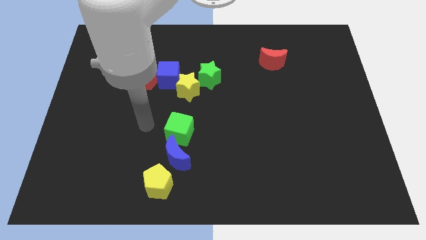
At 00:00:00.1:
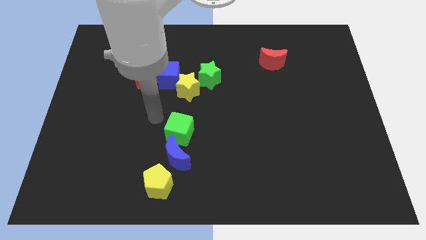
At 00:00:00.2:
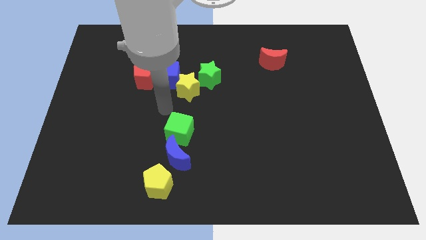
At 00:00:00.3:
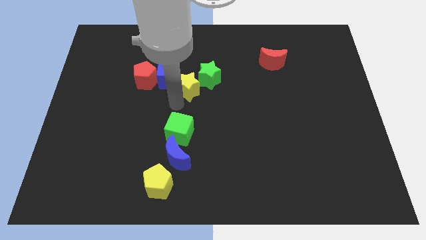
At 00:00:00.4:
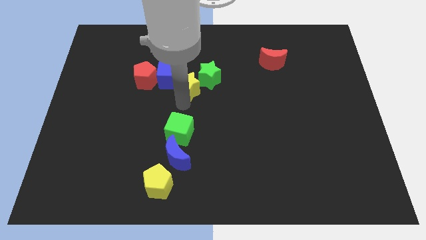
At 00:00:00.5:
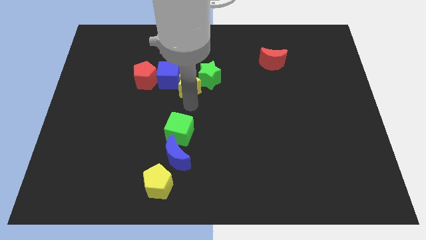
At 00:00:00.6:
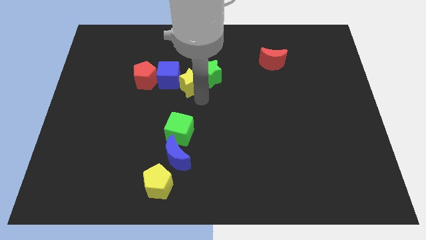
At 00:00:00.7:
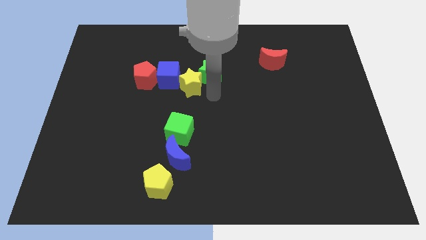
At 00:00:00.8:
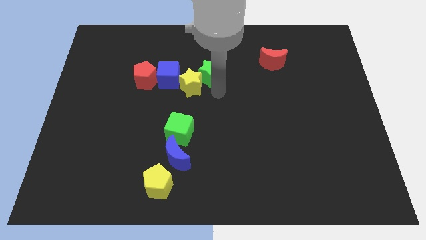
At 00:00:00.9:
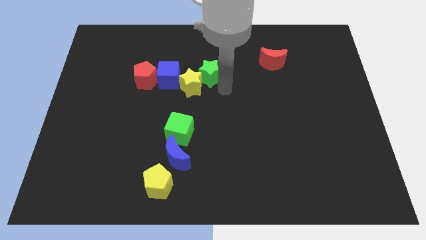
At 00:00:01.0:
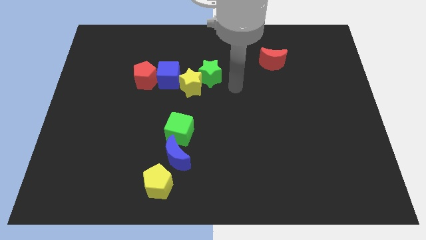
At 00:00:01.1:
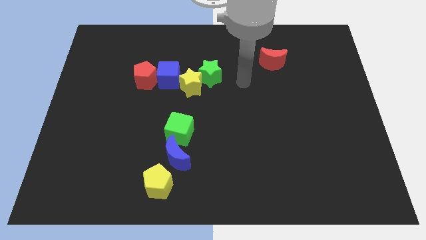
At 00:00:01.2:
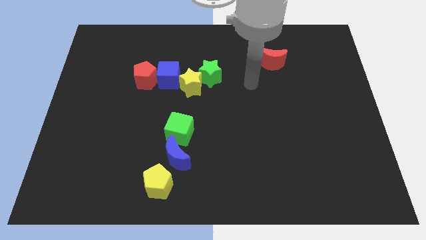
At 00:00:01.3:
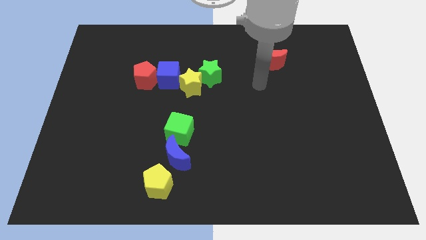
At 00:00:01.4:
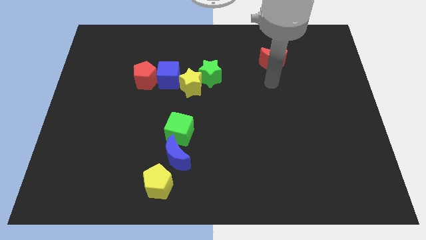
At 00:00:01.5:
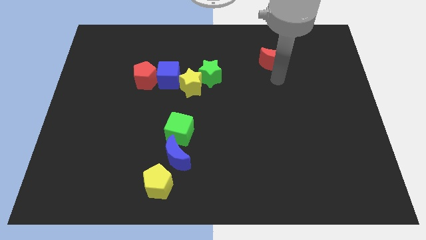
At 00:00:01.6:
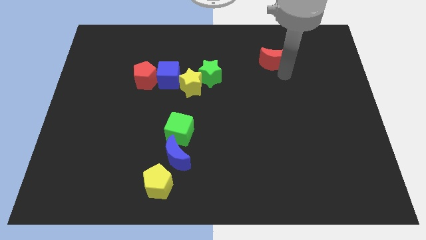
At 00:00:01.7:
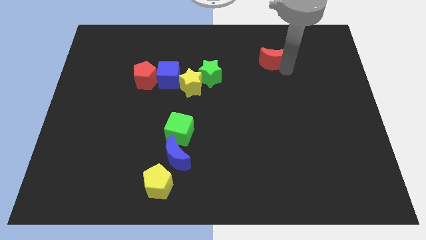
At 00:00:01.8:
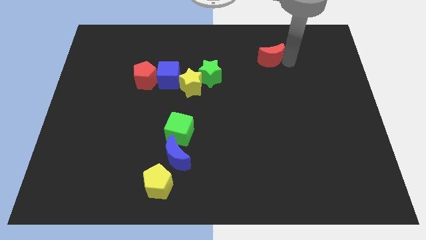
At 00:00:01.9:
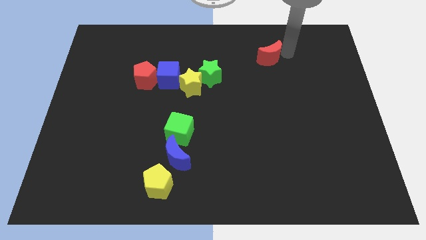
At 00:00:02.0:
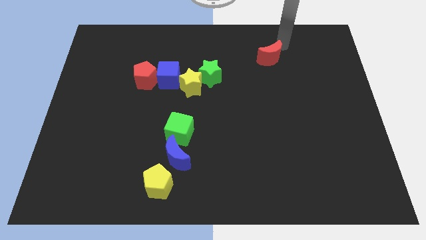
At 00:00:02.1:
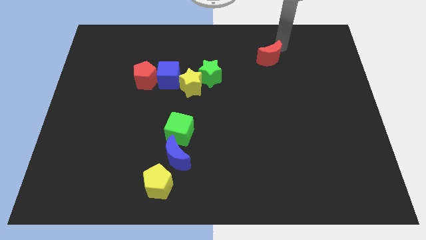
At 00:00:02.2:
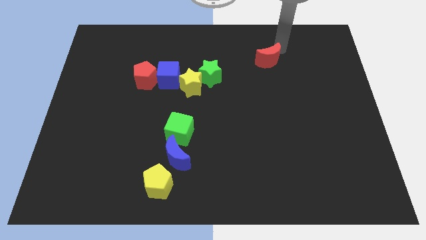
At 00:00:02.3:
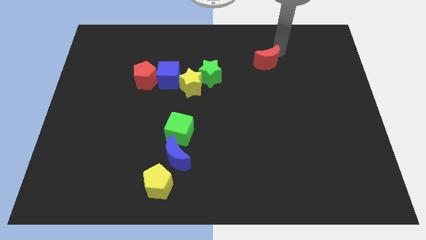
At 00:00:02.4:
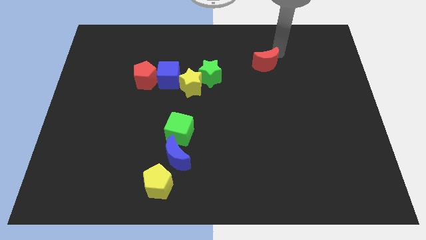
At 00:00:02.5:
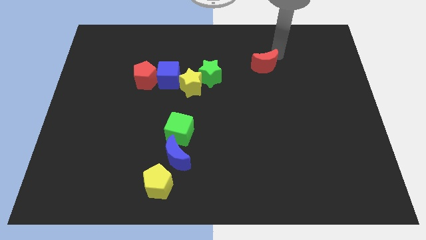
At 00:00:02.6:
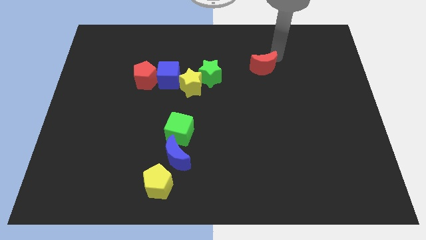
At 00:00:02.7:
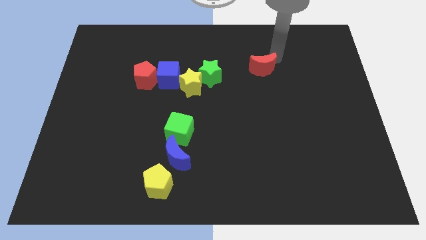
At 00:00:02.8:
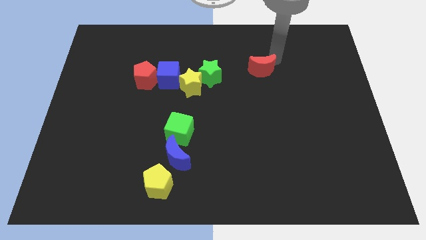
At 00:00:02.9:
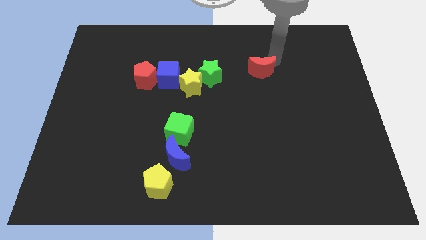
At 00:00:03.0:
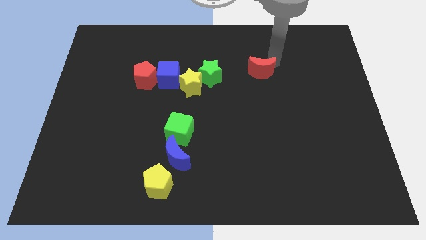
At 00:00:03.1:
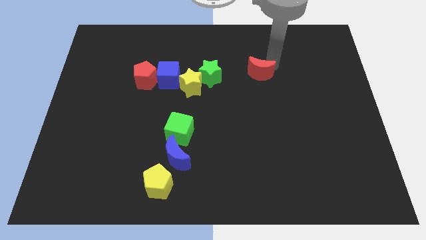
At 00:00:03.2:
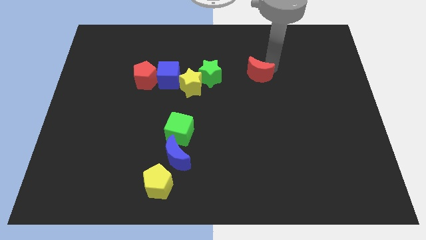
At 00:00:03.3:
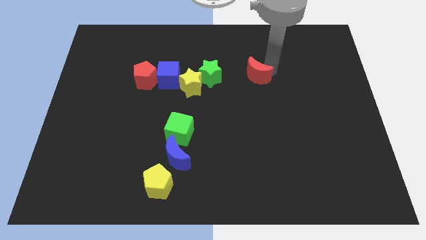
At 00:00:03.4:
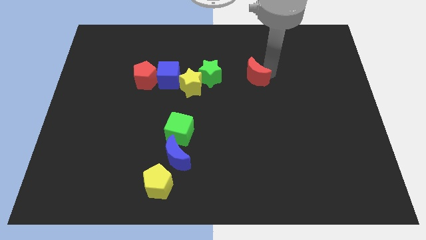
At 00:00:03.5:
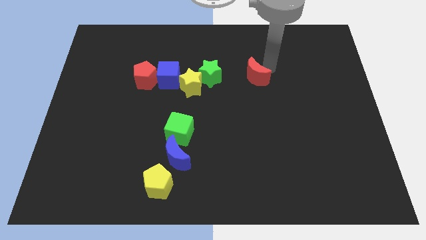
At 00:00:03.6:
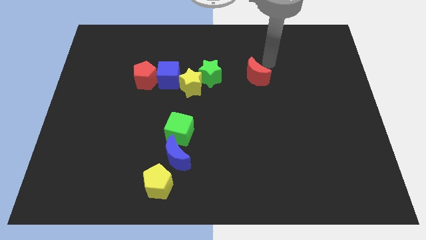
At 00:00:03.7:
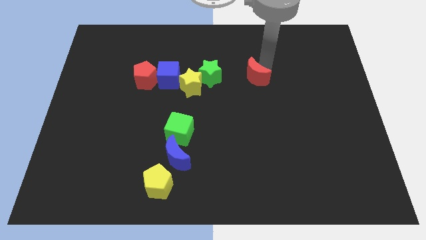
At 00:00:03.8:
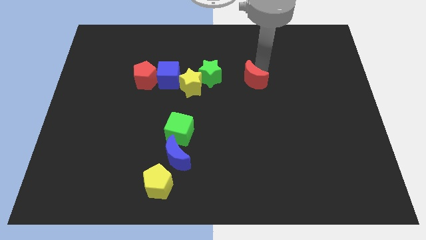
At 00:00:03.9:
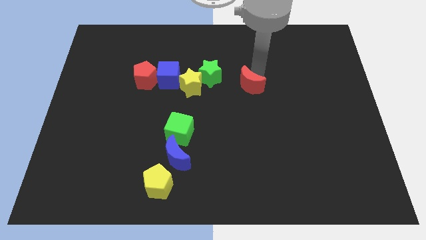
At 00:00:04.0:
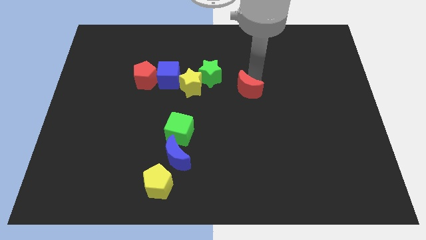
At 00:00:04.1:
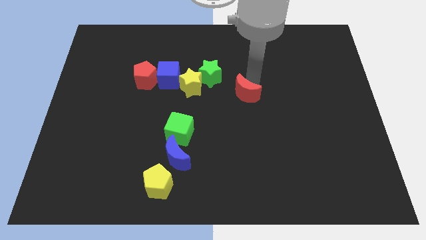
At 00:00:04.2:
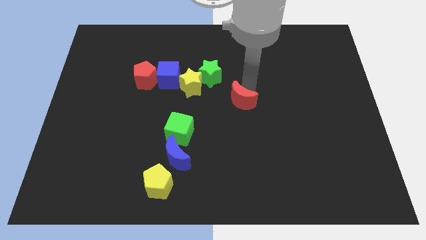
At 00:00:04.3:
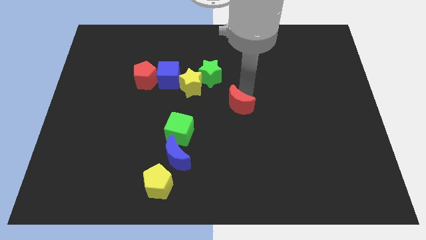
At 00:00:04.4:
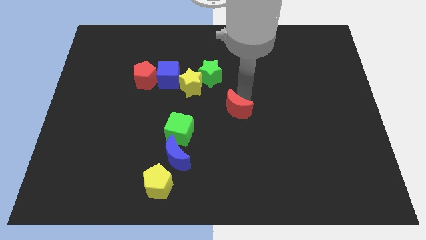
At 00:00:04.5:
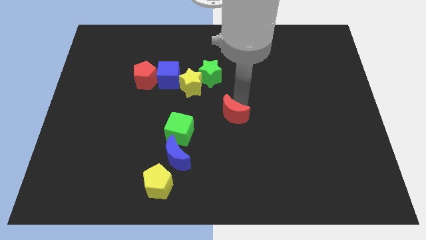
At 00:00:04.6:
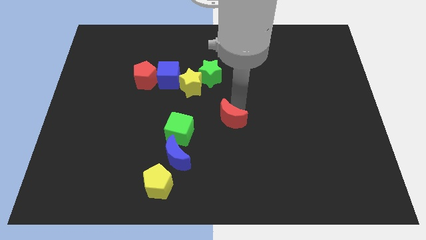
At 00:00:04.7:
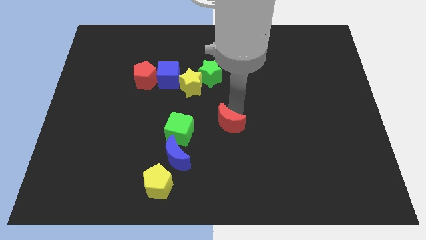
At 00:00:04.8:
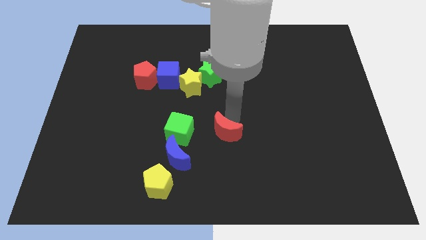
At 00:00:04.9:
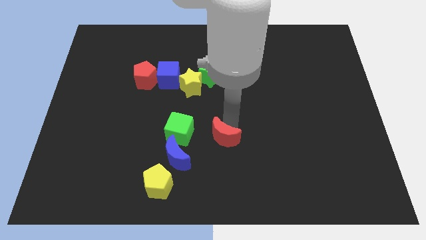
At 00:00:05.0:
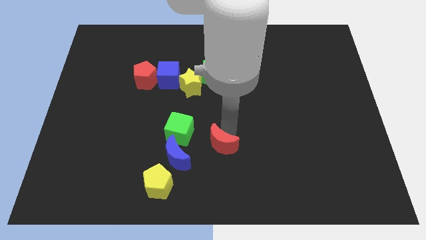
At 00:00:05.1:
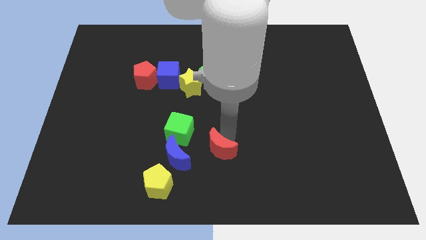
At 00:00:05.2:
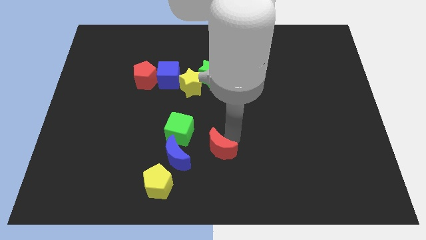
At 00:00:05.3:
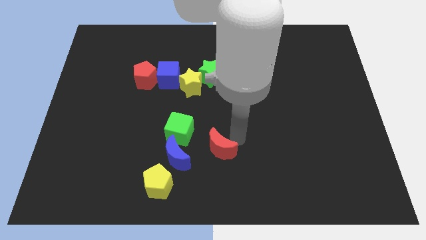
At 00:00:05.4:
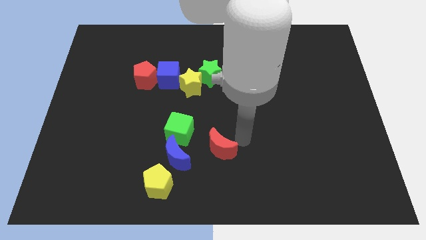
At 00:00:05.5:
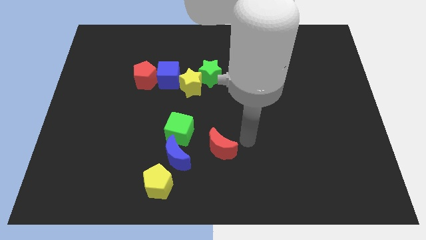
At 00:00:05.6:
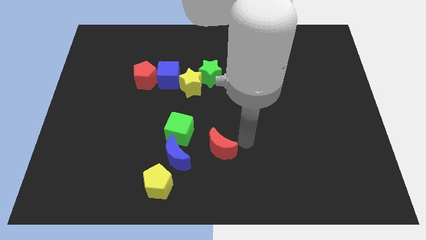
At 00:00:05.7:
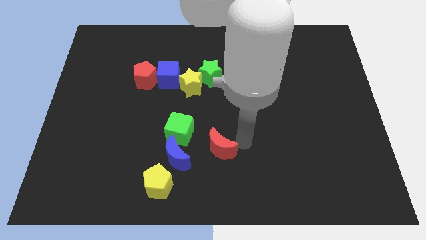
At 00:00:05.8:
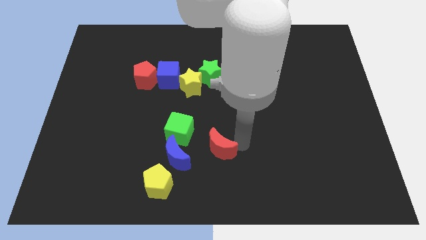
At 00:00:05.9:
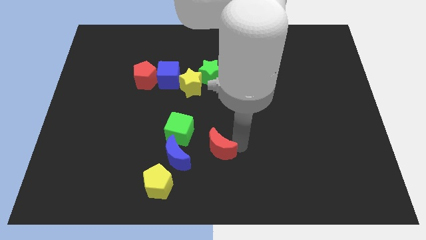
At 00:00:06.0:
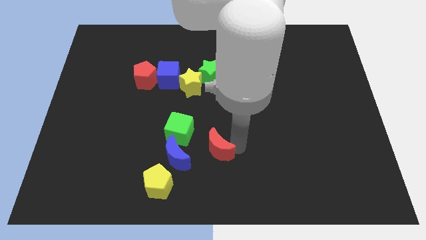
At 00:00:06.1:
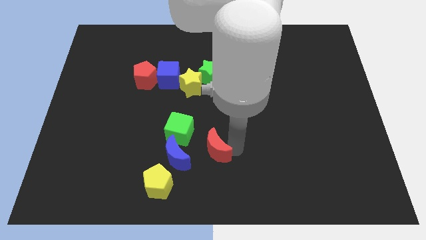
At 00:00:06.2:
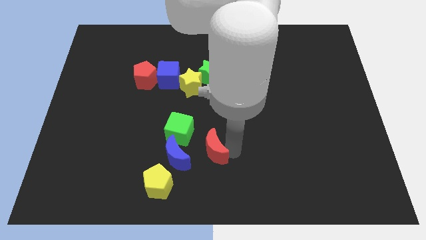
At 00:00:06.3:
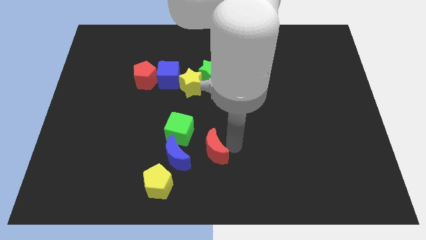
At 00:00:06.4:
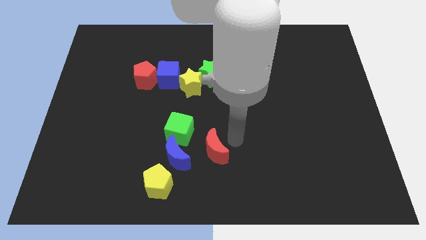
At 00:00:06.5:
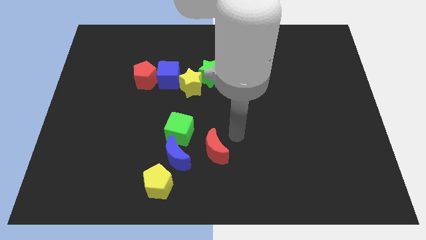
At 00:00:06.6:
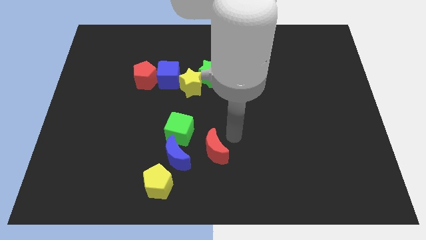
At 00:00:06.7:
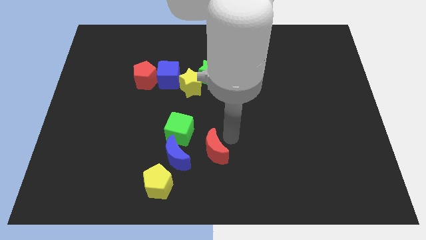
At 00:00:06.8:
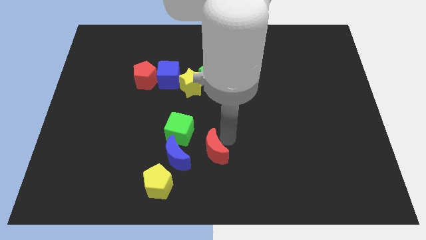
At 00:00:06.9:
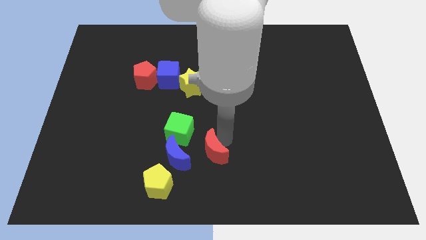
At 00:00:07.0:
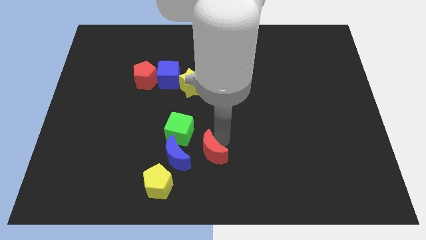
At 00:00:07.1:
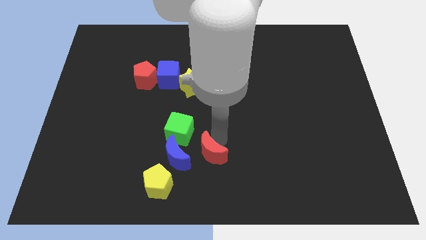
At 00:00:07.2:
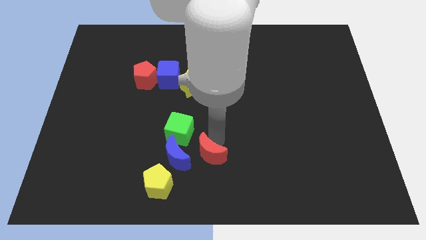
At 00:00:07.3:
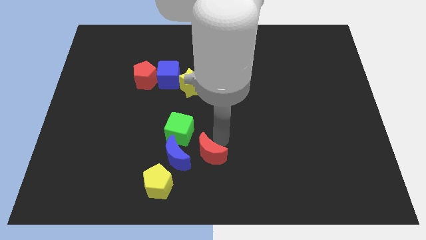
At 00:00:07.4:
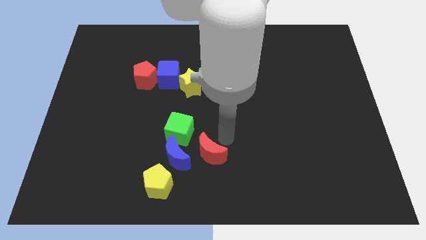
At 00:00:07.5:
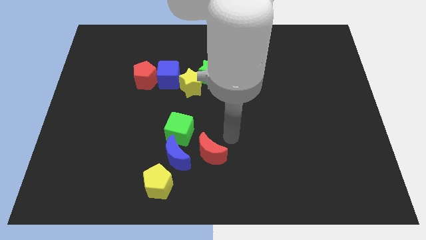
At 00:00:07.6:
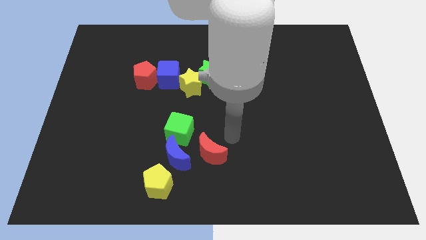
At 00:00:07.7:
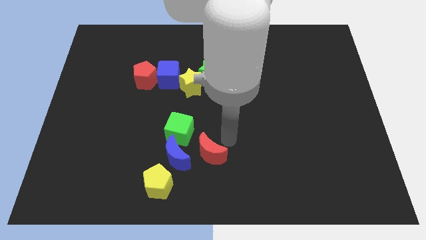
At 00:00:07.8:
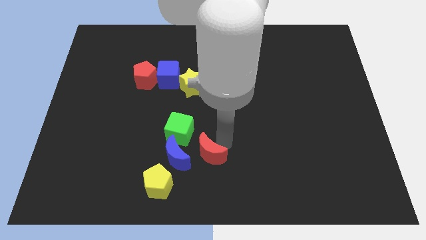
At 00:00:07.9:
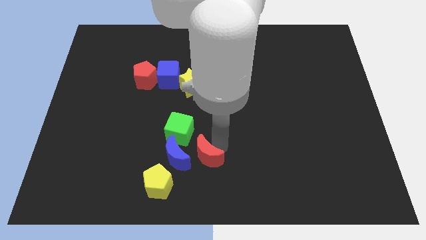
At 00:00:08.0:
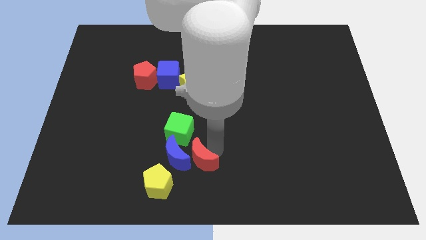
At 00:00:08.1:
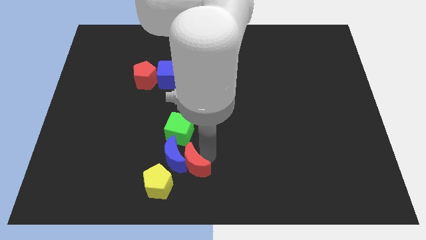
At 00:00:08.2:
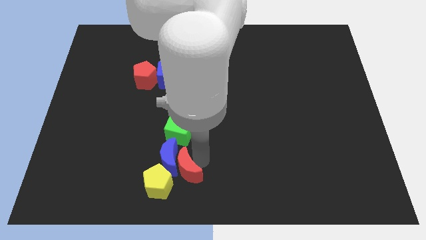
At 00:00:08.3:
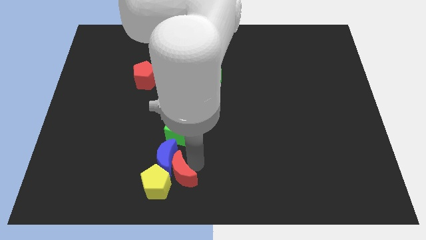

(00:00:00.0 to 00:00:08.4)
put the red moon next to the yellow pentagon
